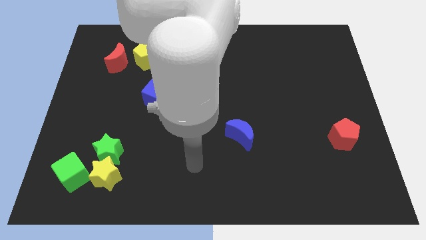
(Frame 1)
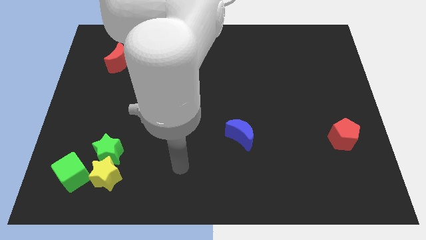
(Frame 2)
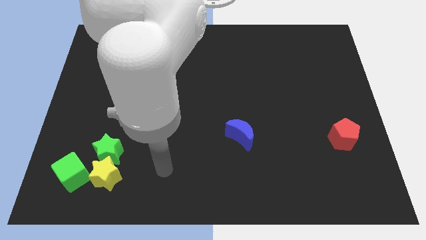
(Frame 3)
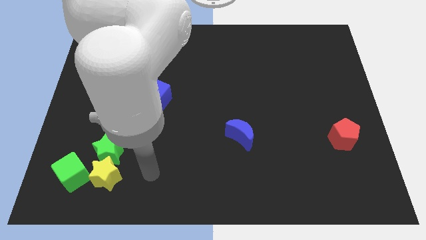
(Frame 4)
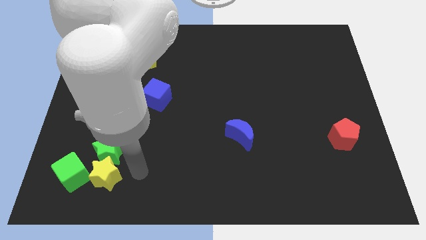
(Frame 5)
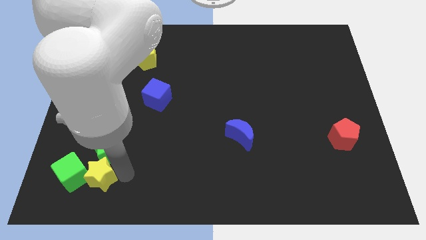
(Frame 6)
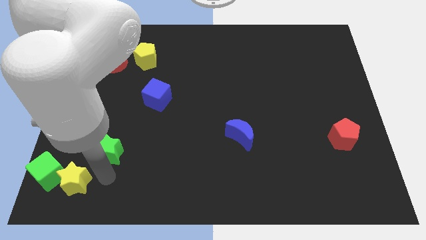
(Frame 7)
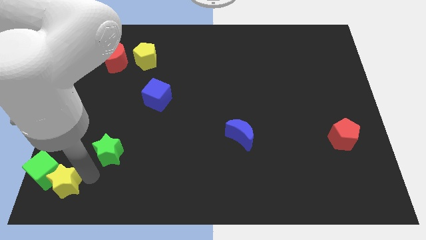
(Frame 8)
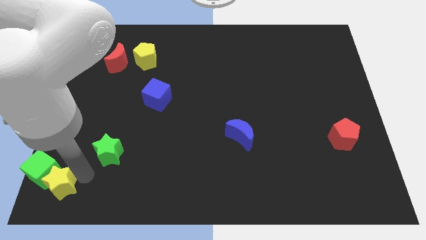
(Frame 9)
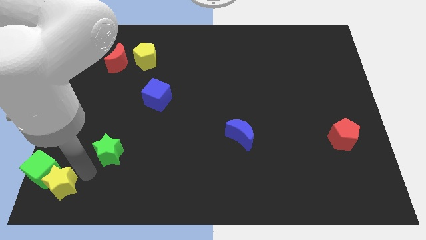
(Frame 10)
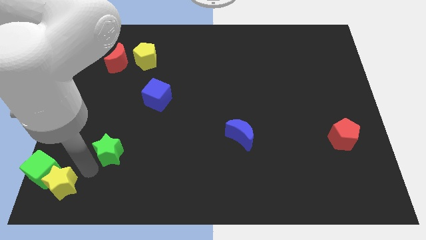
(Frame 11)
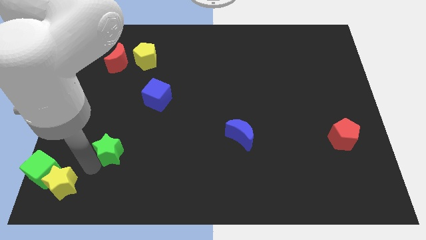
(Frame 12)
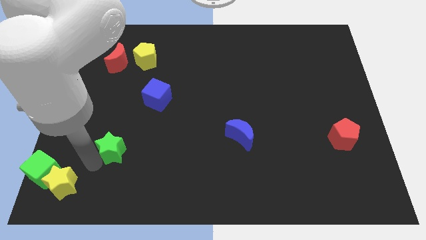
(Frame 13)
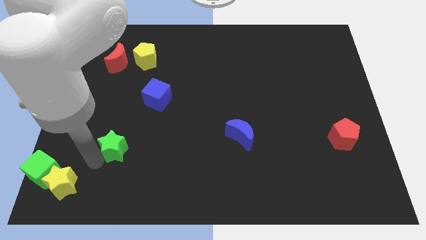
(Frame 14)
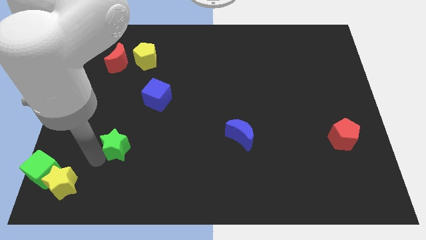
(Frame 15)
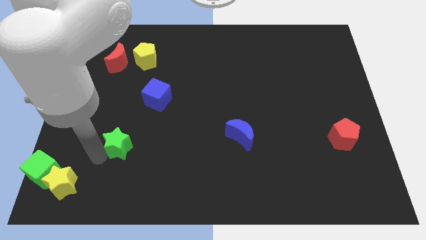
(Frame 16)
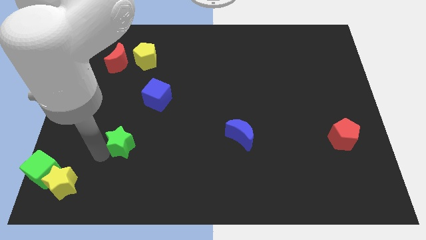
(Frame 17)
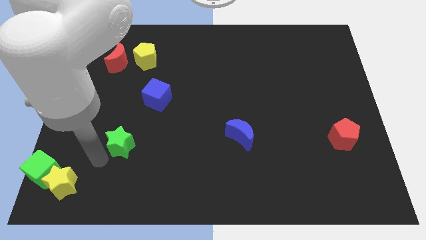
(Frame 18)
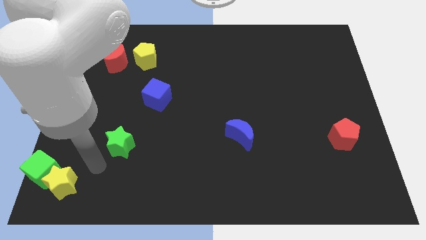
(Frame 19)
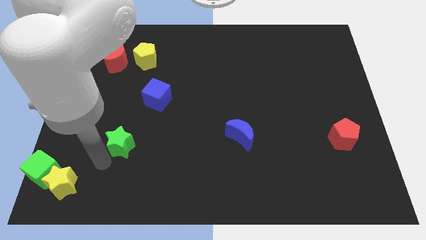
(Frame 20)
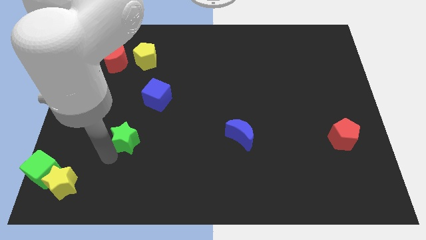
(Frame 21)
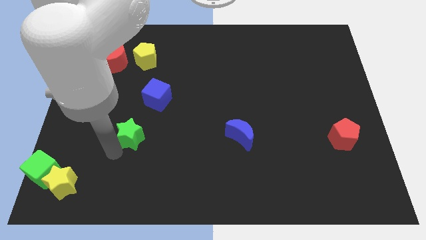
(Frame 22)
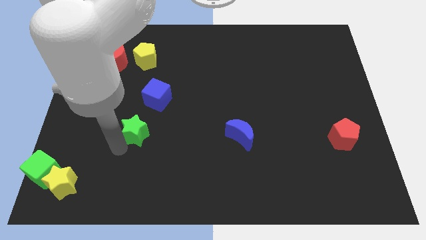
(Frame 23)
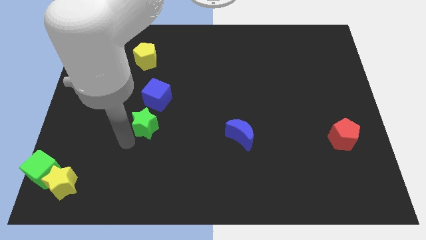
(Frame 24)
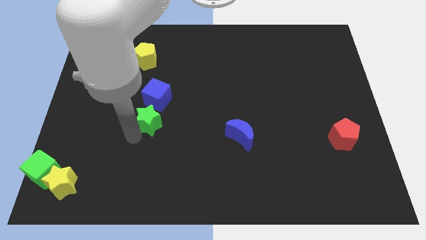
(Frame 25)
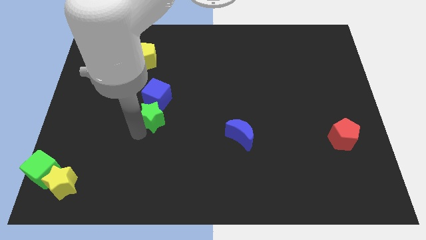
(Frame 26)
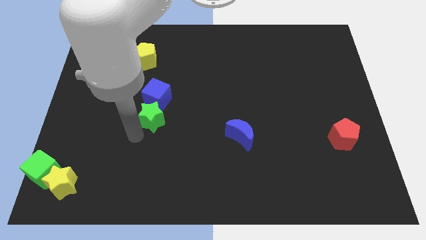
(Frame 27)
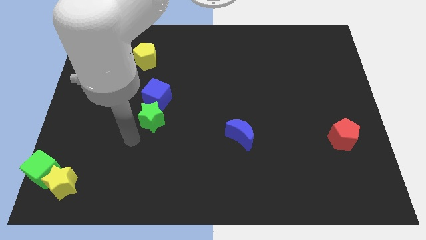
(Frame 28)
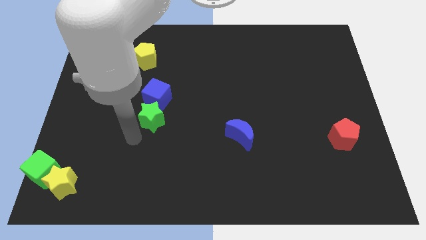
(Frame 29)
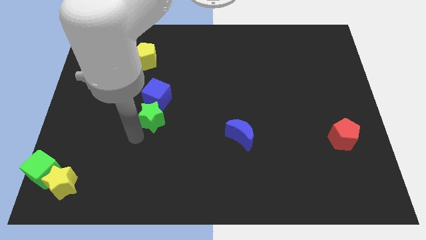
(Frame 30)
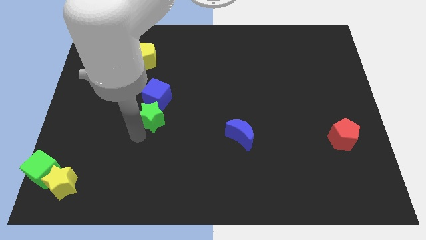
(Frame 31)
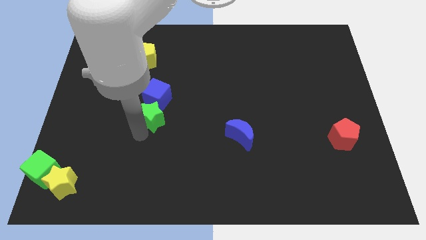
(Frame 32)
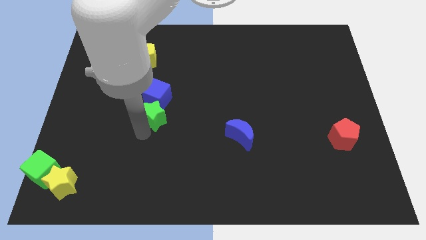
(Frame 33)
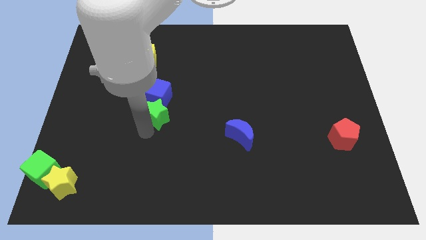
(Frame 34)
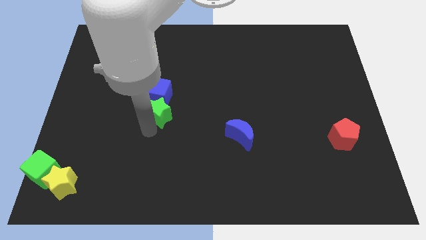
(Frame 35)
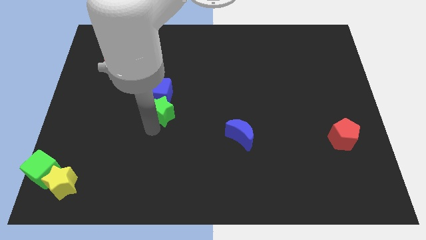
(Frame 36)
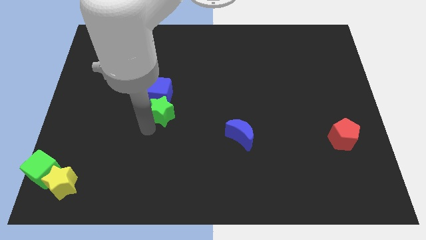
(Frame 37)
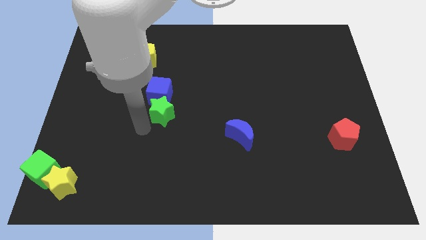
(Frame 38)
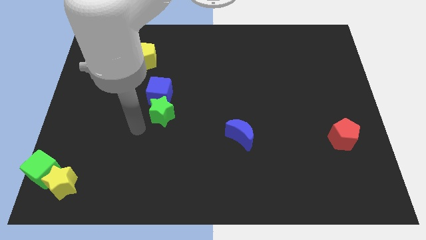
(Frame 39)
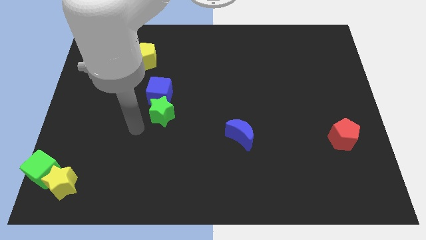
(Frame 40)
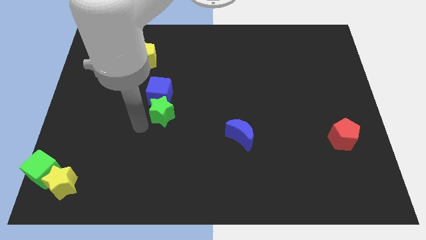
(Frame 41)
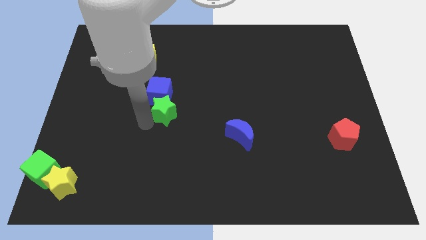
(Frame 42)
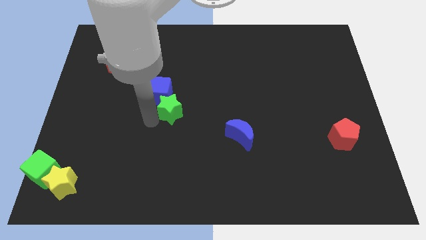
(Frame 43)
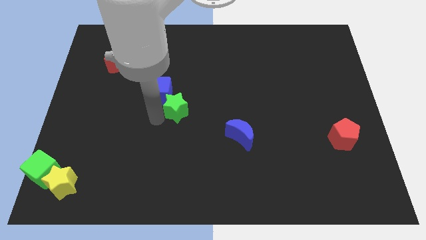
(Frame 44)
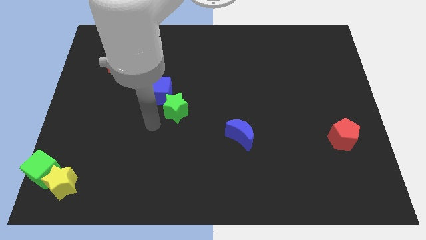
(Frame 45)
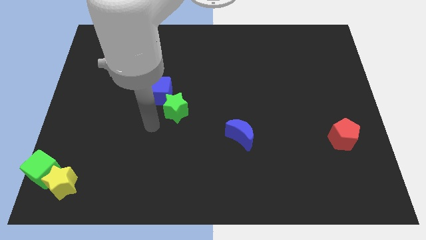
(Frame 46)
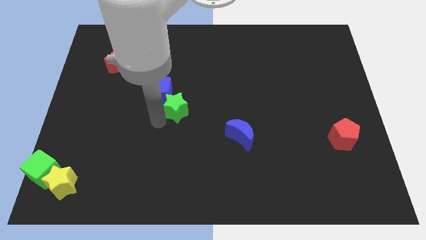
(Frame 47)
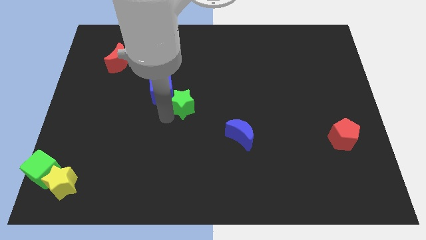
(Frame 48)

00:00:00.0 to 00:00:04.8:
move the green star to the right side of the blue cube

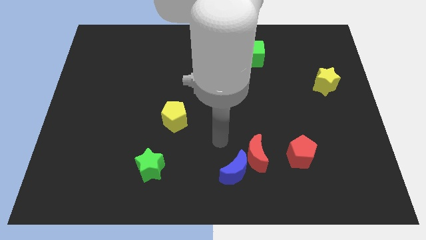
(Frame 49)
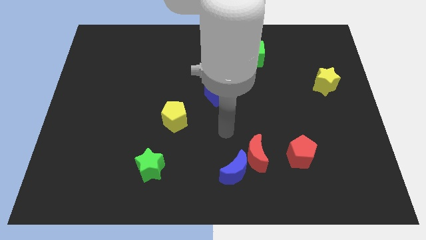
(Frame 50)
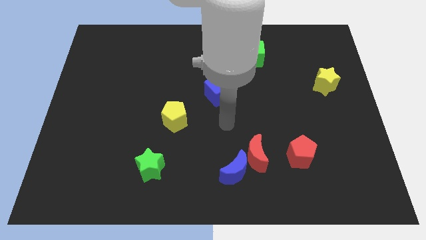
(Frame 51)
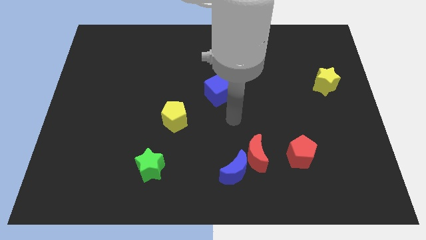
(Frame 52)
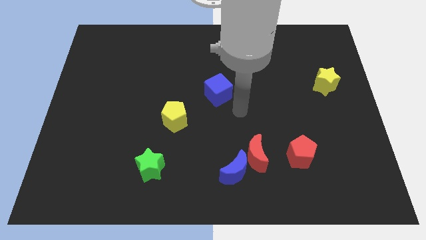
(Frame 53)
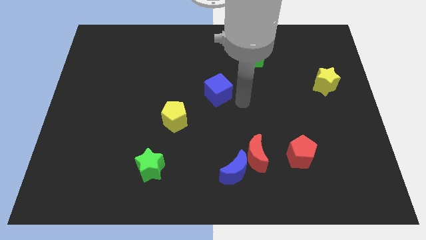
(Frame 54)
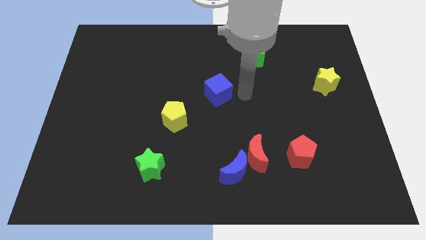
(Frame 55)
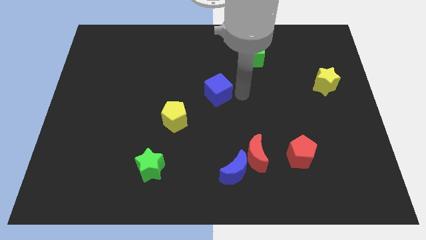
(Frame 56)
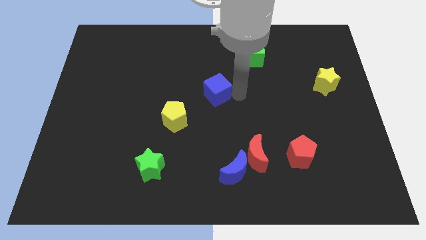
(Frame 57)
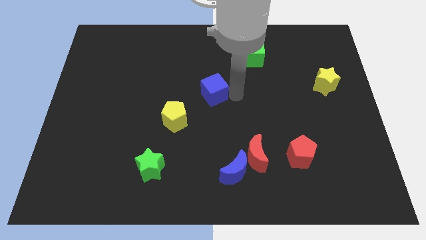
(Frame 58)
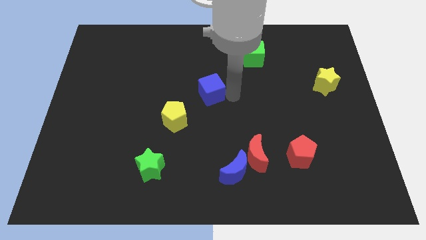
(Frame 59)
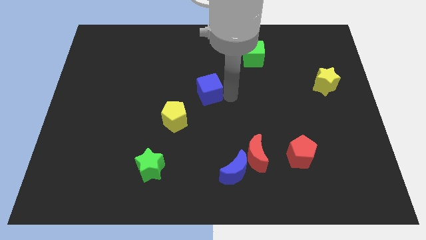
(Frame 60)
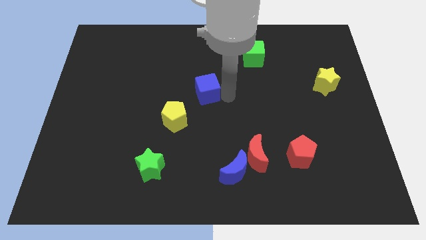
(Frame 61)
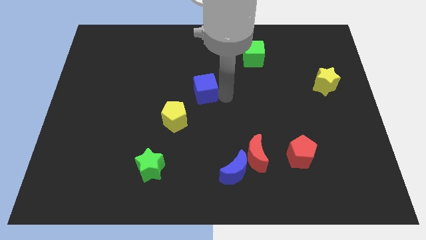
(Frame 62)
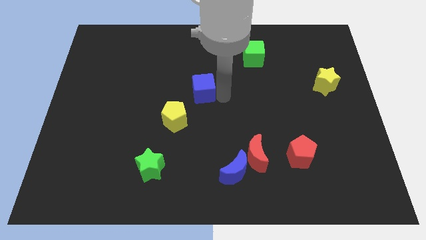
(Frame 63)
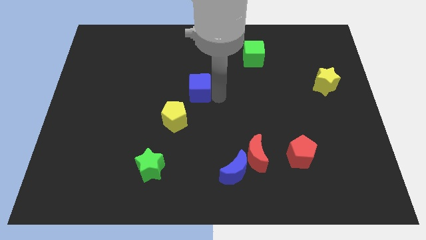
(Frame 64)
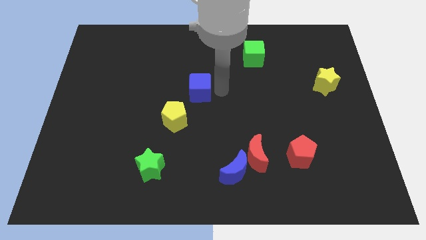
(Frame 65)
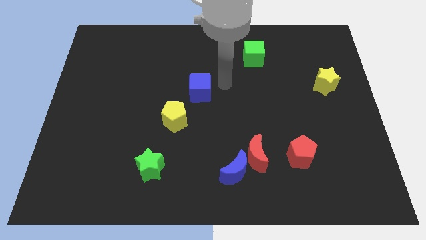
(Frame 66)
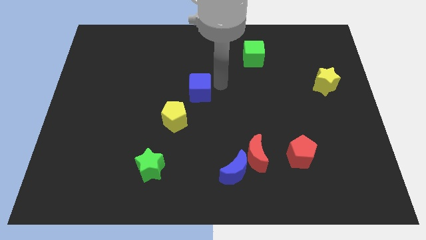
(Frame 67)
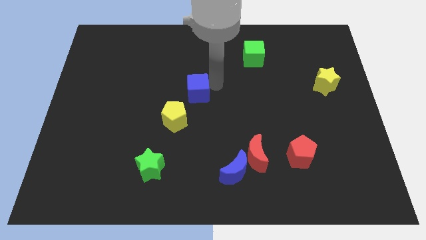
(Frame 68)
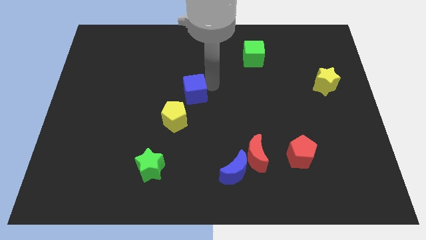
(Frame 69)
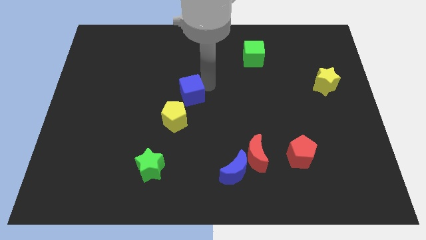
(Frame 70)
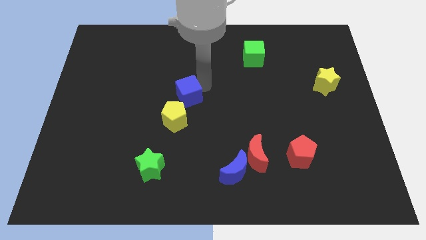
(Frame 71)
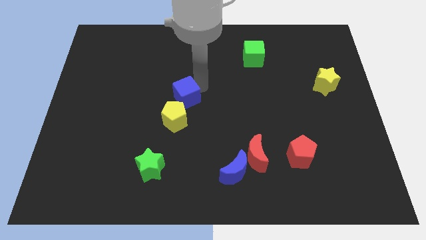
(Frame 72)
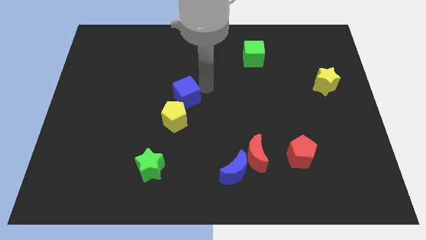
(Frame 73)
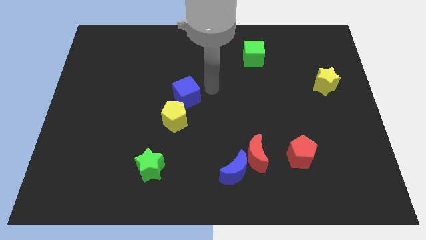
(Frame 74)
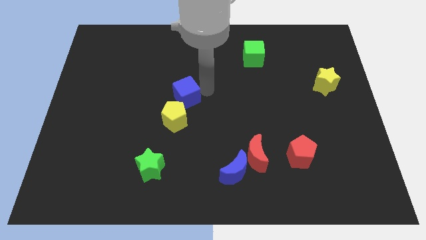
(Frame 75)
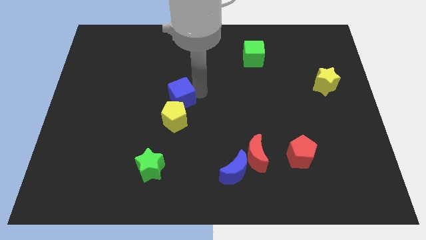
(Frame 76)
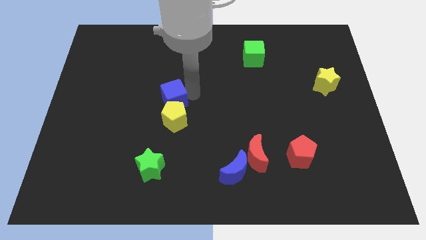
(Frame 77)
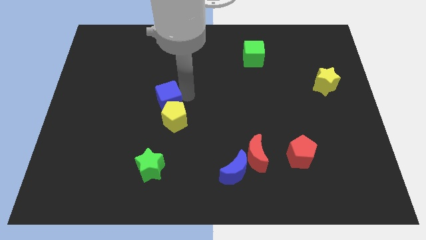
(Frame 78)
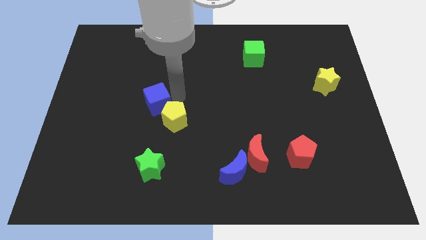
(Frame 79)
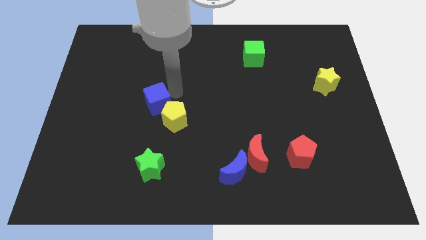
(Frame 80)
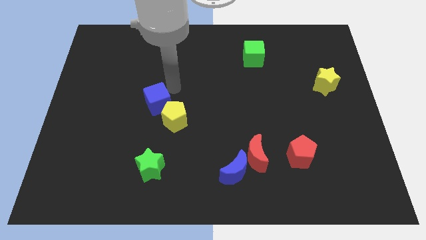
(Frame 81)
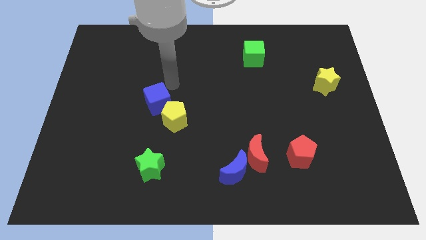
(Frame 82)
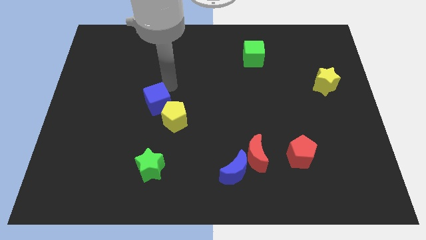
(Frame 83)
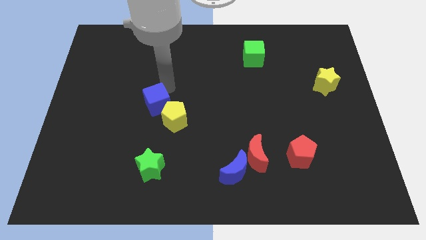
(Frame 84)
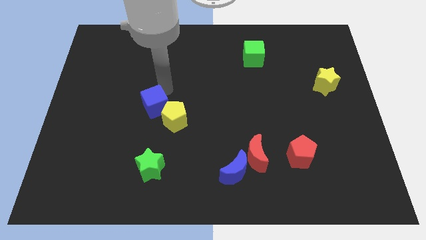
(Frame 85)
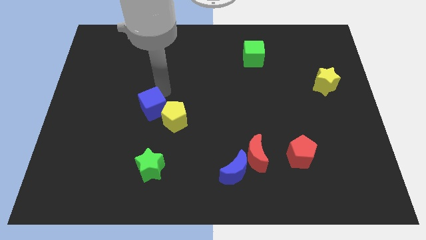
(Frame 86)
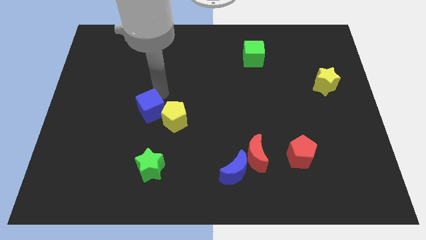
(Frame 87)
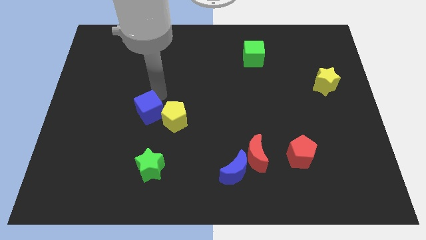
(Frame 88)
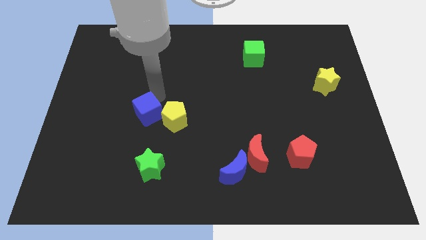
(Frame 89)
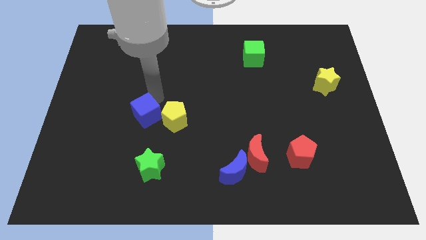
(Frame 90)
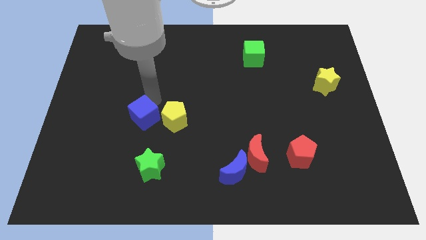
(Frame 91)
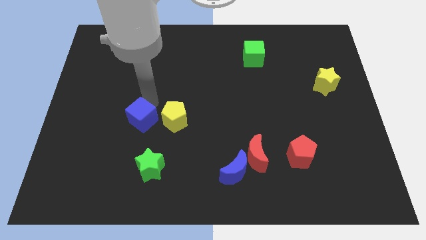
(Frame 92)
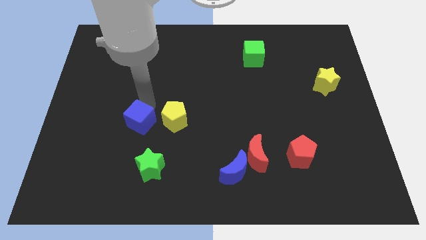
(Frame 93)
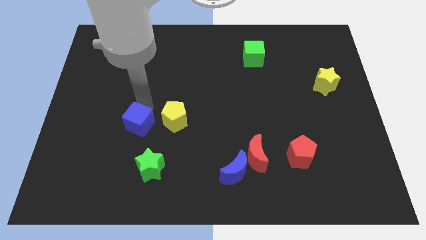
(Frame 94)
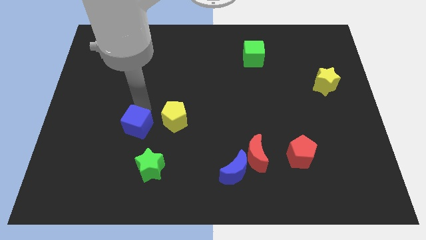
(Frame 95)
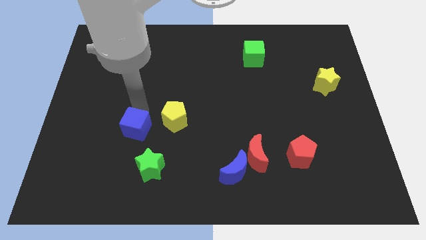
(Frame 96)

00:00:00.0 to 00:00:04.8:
push the blue cube to the top left of the green star
